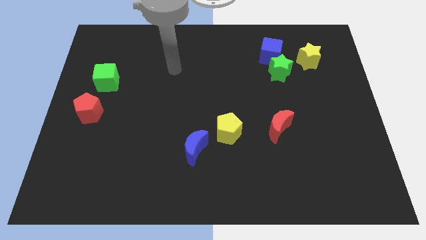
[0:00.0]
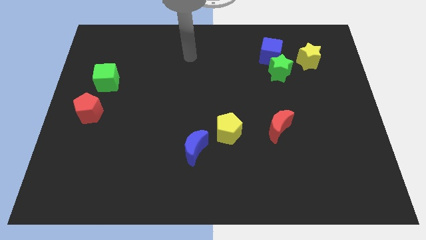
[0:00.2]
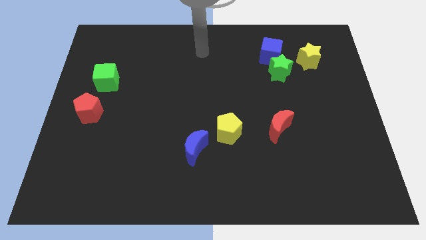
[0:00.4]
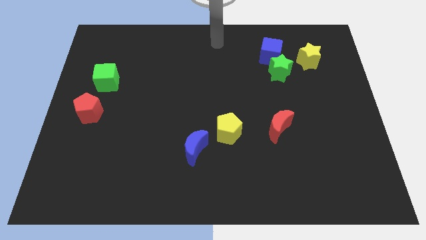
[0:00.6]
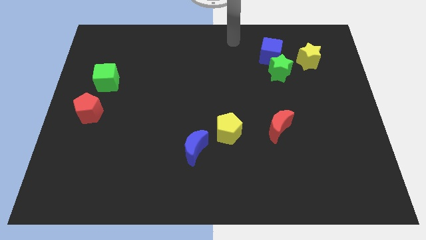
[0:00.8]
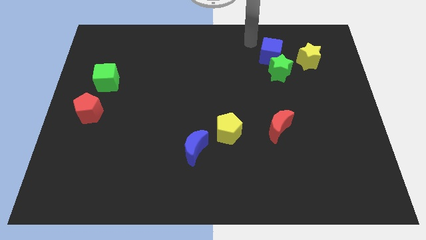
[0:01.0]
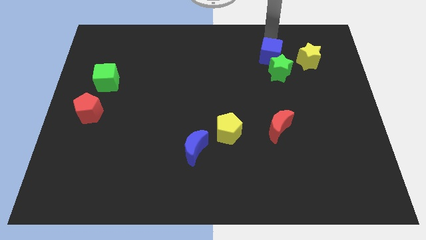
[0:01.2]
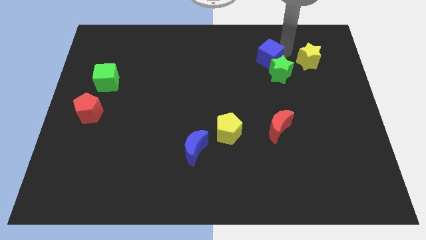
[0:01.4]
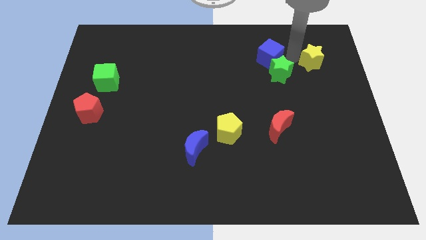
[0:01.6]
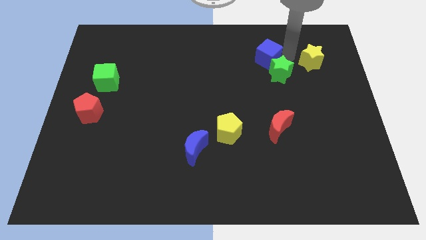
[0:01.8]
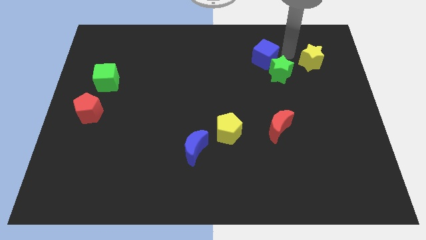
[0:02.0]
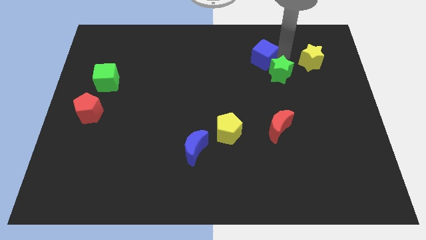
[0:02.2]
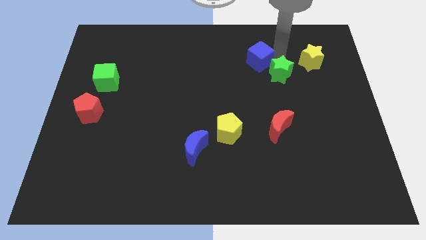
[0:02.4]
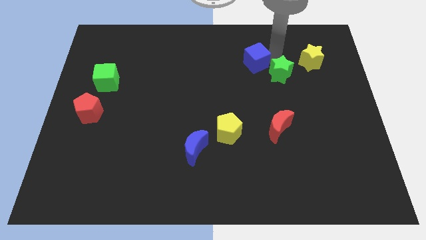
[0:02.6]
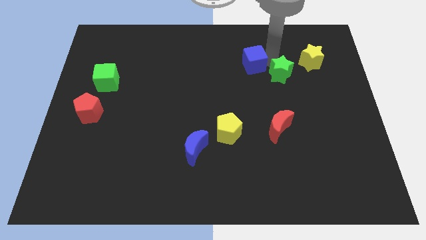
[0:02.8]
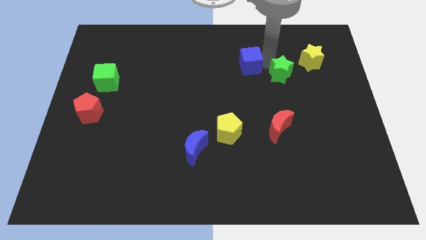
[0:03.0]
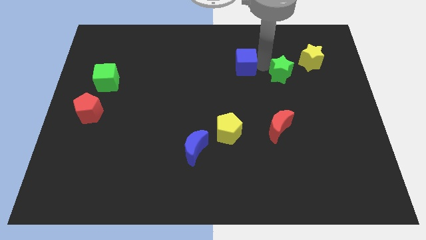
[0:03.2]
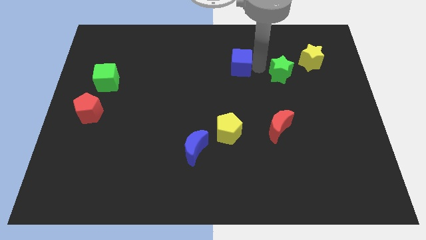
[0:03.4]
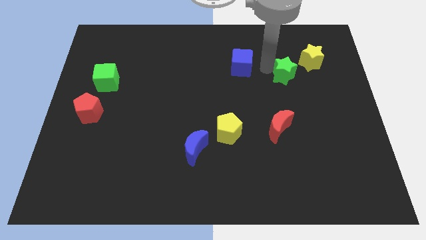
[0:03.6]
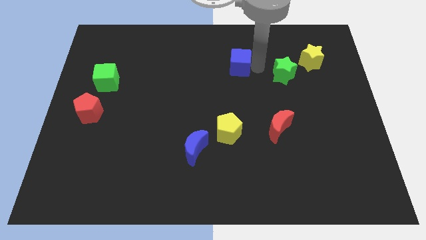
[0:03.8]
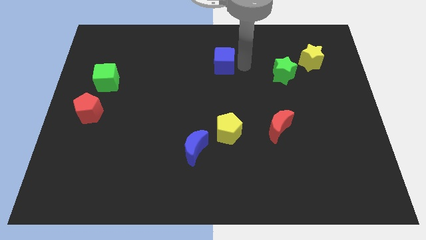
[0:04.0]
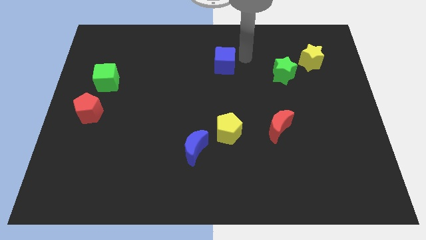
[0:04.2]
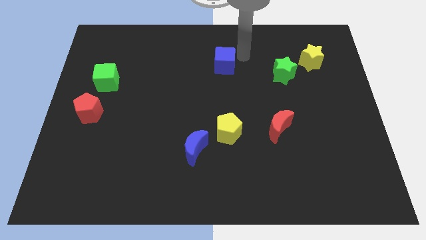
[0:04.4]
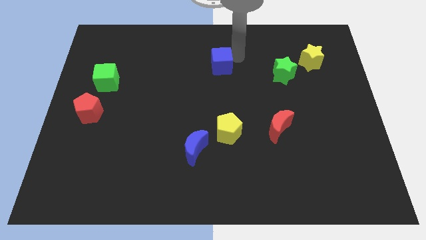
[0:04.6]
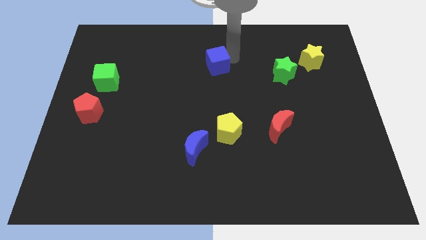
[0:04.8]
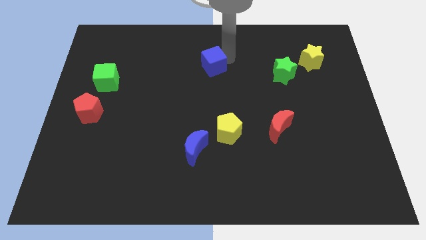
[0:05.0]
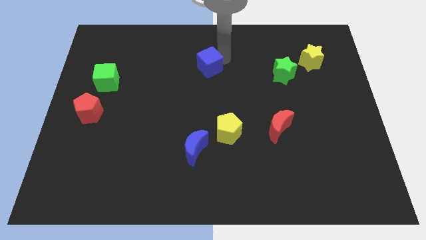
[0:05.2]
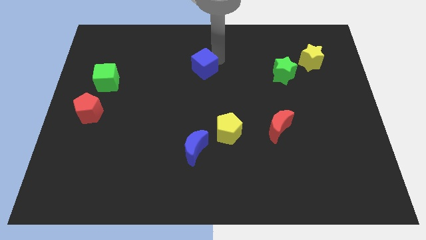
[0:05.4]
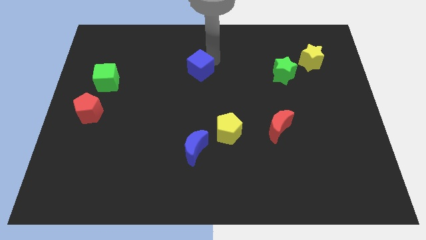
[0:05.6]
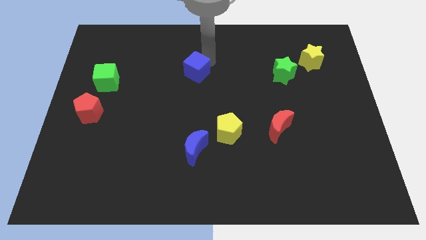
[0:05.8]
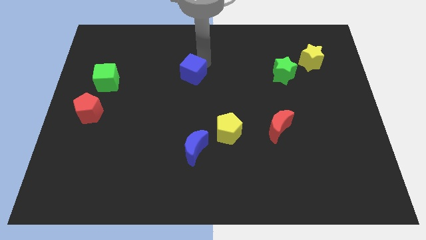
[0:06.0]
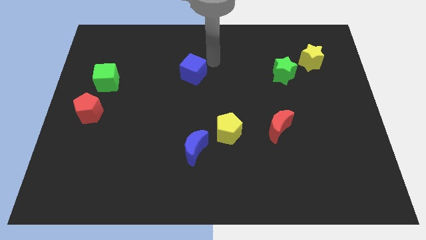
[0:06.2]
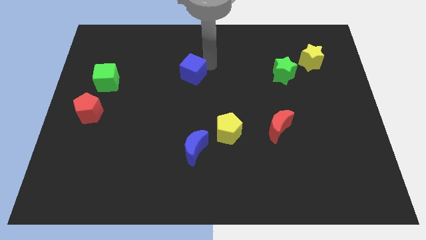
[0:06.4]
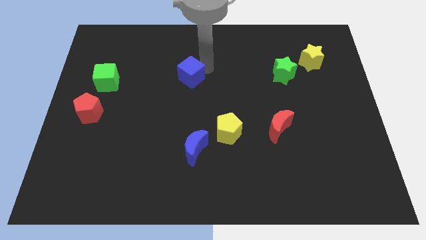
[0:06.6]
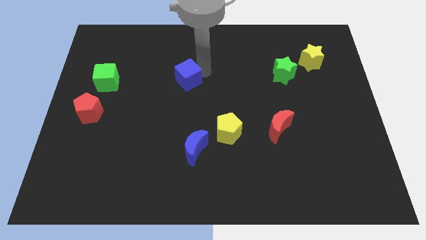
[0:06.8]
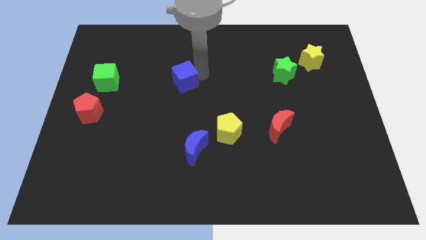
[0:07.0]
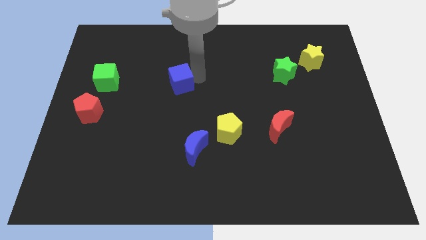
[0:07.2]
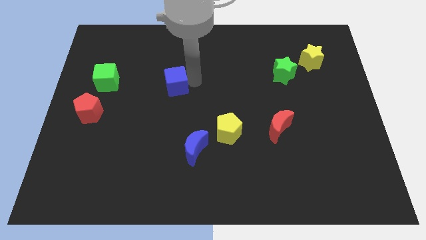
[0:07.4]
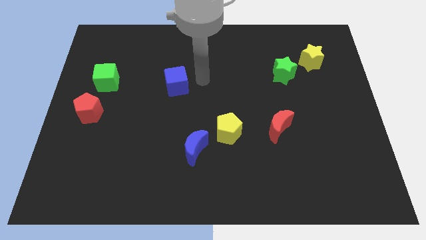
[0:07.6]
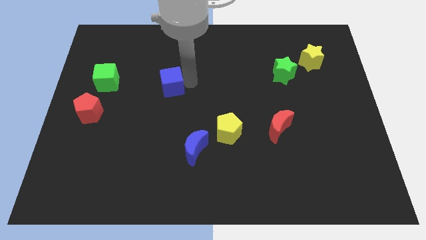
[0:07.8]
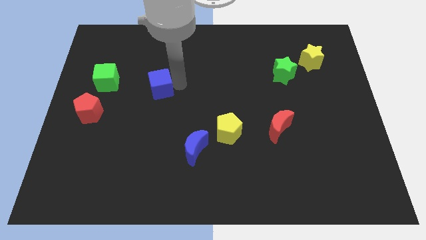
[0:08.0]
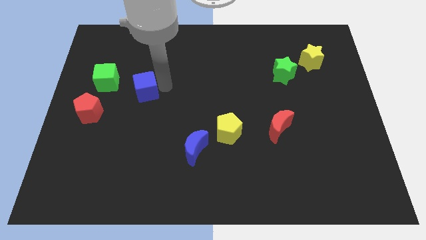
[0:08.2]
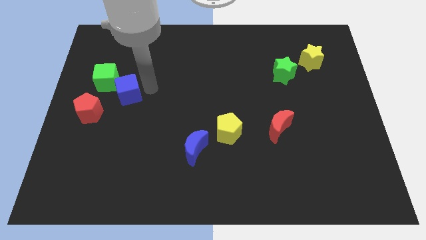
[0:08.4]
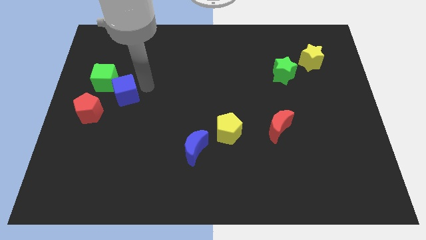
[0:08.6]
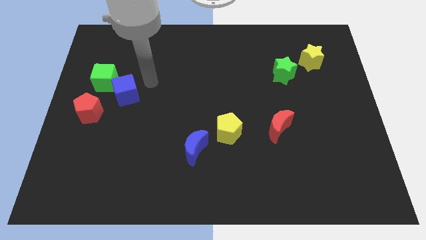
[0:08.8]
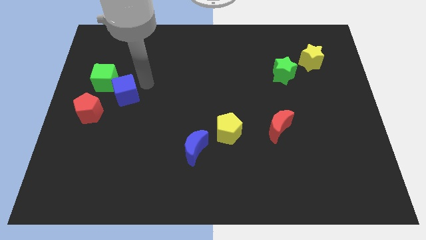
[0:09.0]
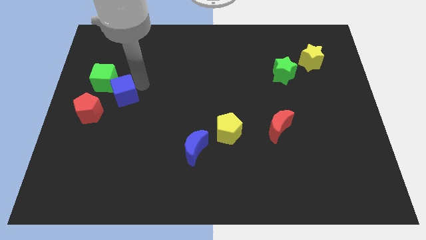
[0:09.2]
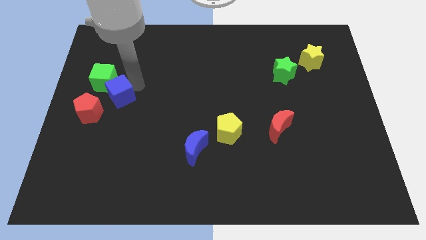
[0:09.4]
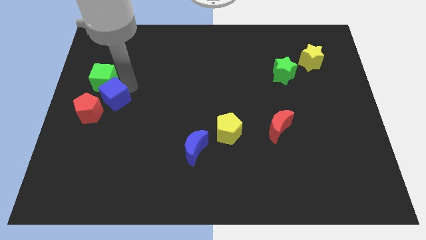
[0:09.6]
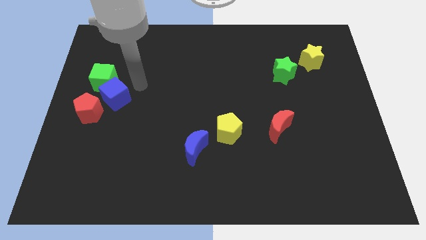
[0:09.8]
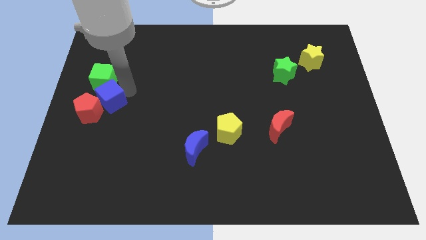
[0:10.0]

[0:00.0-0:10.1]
push the blue cube to the red pentagon

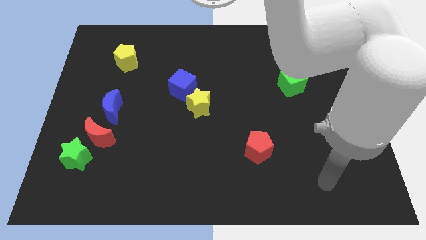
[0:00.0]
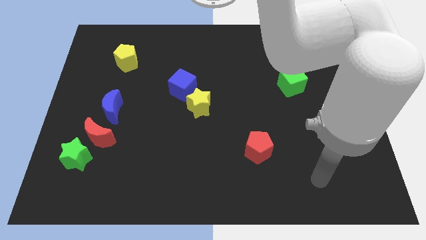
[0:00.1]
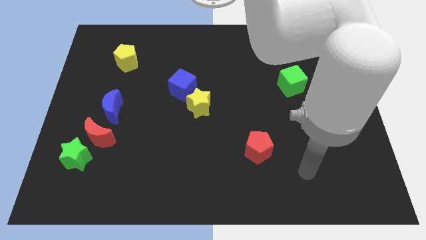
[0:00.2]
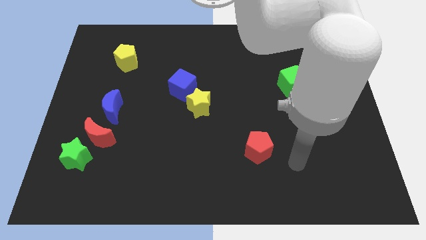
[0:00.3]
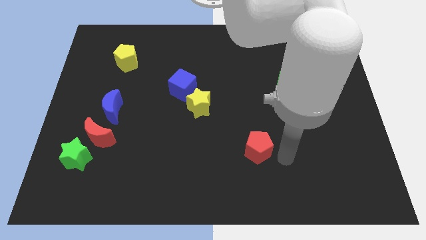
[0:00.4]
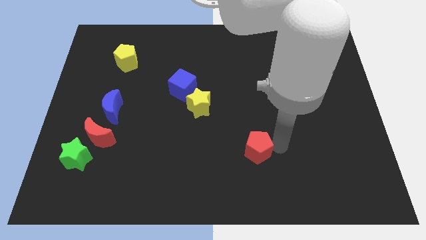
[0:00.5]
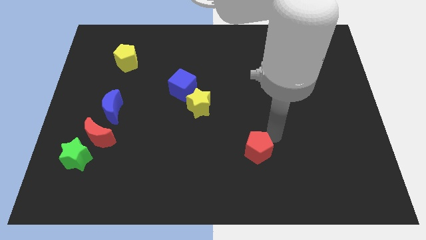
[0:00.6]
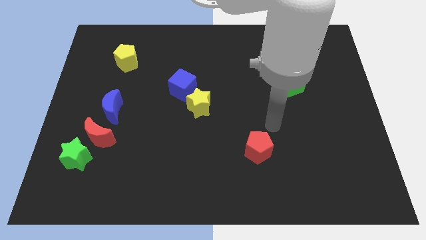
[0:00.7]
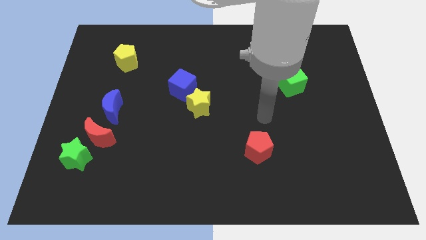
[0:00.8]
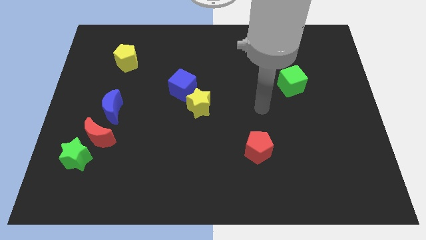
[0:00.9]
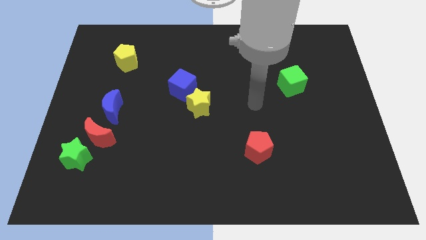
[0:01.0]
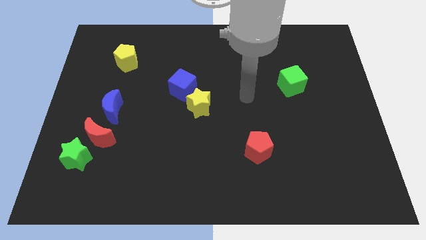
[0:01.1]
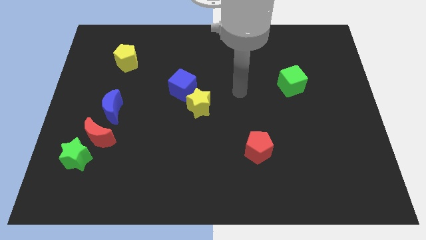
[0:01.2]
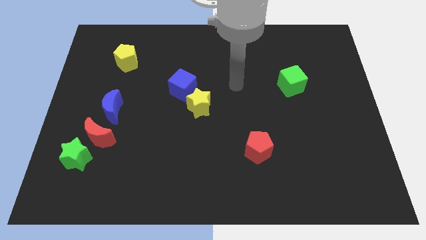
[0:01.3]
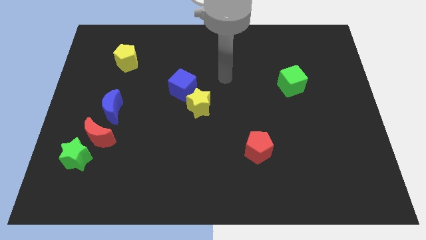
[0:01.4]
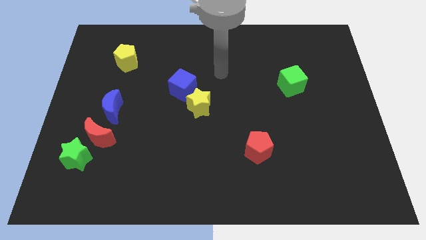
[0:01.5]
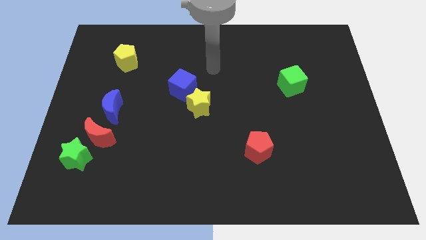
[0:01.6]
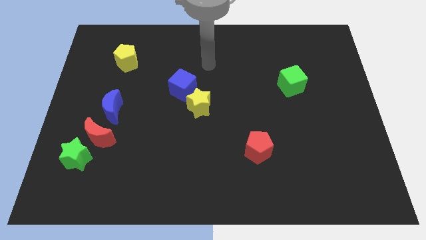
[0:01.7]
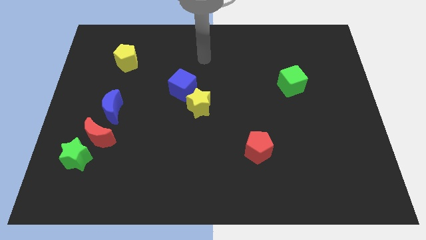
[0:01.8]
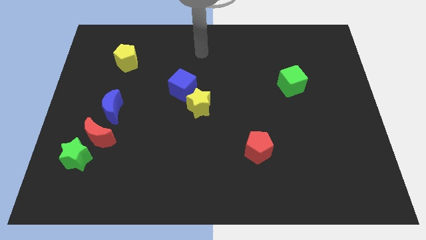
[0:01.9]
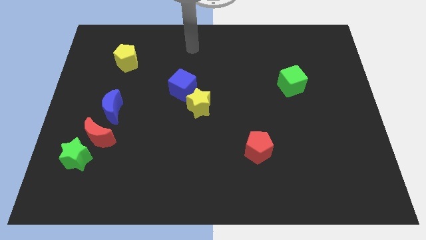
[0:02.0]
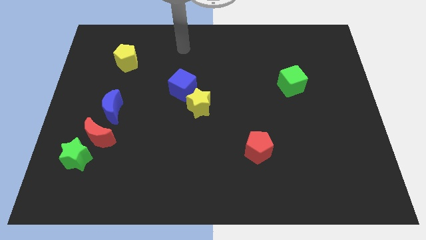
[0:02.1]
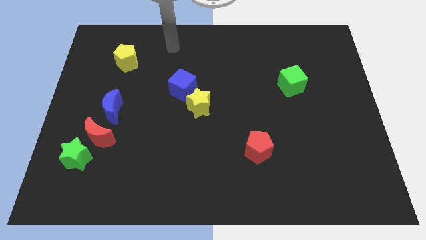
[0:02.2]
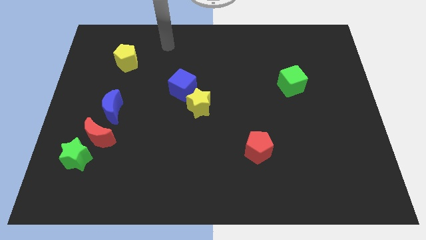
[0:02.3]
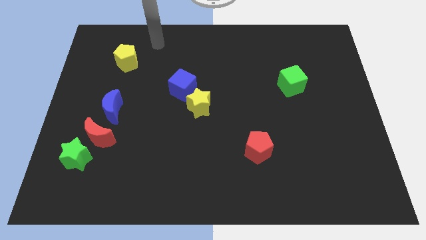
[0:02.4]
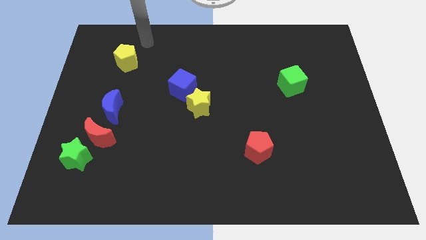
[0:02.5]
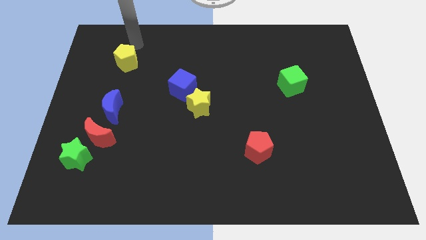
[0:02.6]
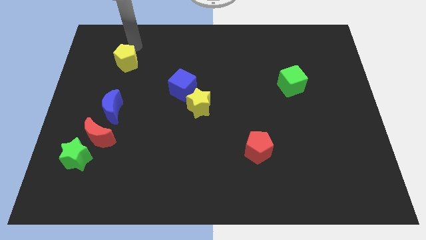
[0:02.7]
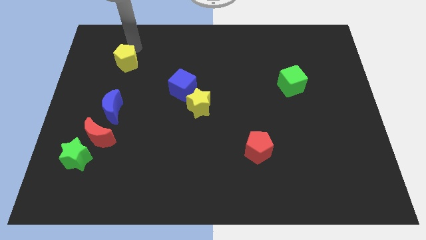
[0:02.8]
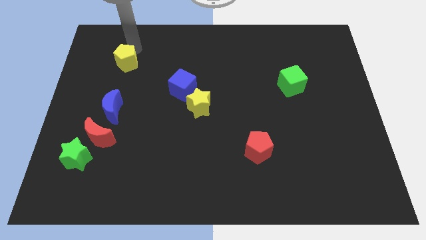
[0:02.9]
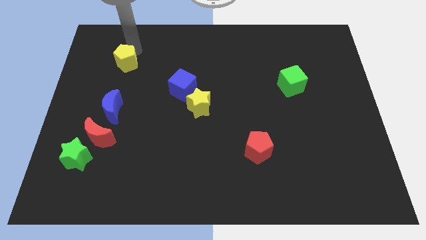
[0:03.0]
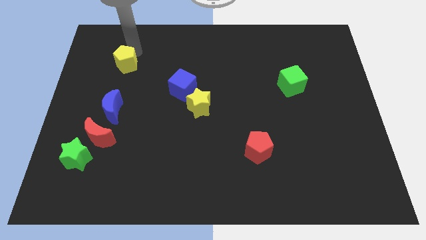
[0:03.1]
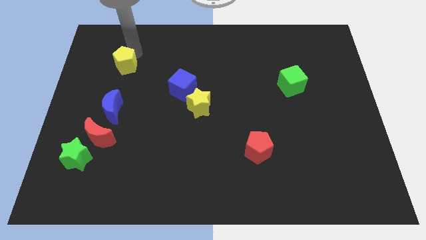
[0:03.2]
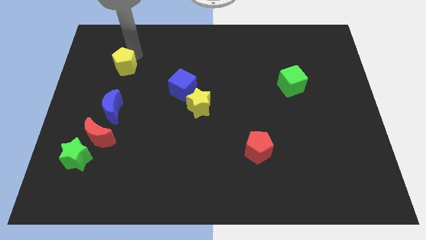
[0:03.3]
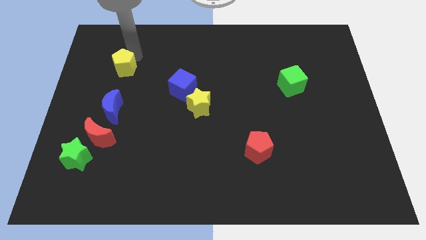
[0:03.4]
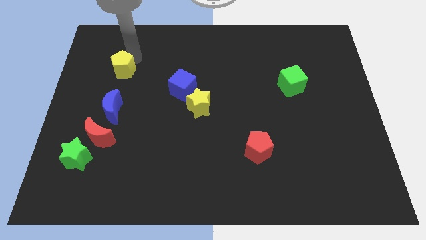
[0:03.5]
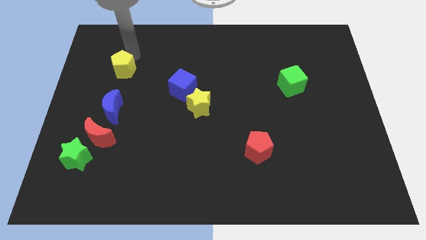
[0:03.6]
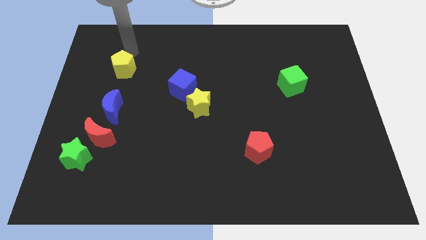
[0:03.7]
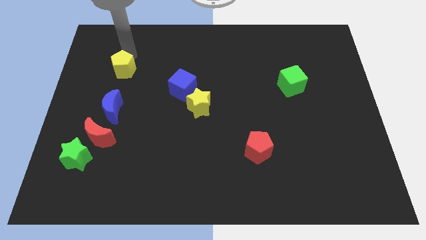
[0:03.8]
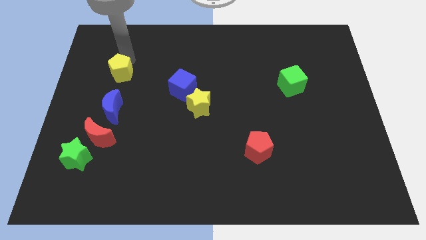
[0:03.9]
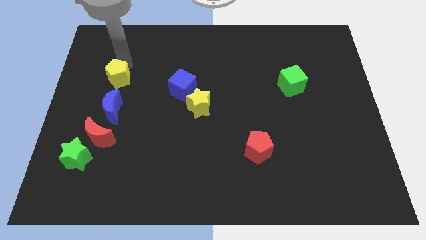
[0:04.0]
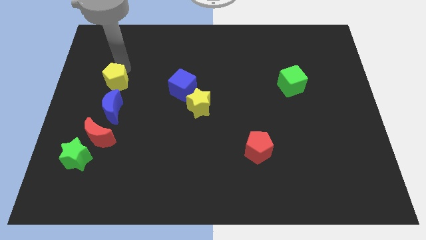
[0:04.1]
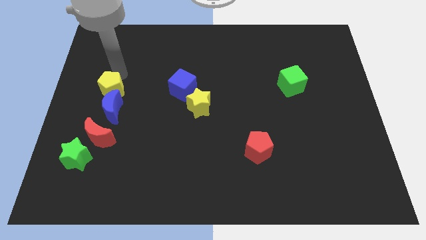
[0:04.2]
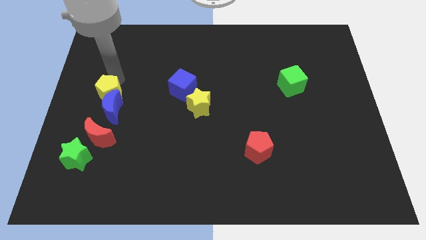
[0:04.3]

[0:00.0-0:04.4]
move the yellow pentagon towards the blue moon
